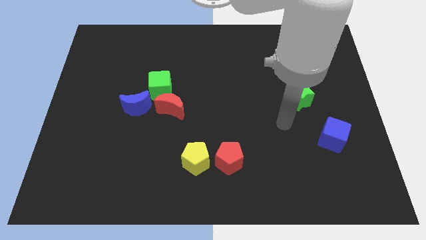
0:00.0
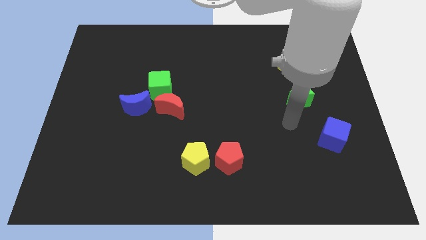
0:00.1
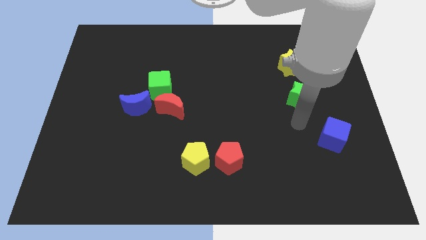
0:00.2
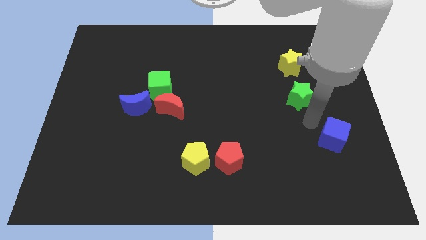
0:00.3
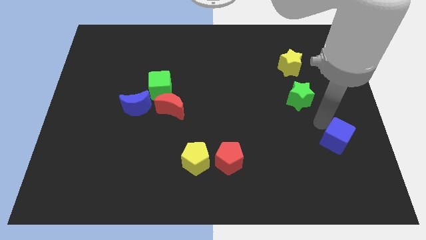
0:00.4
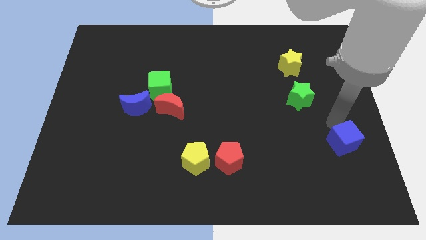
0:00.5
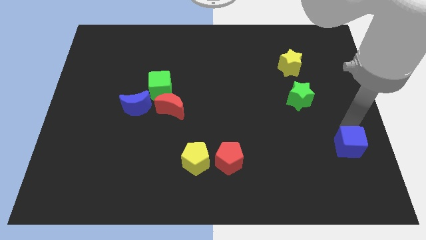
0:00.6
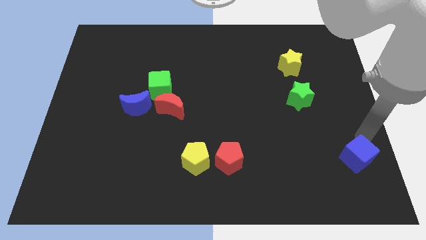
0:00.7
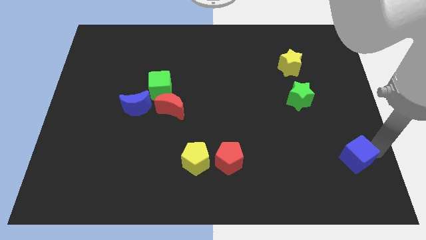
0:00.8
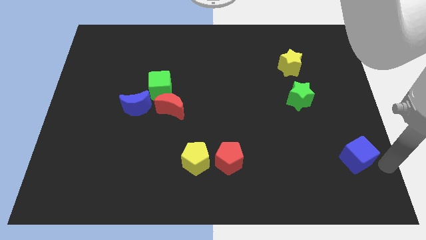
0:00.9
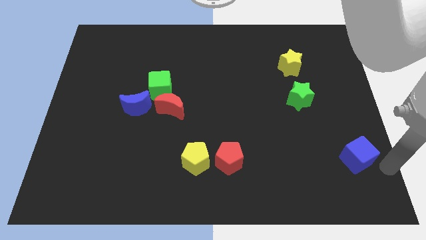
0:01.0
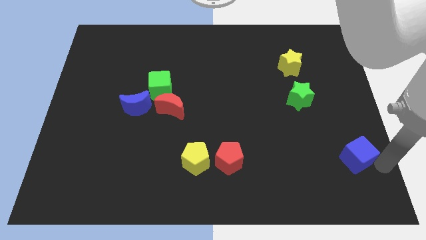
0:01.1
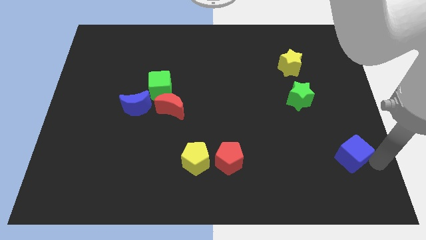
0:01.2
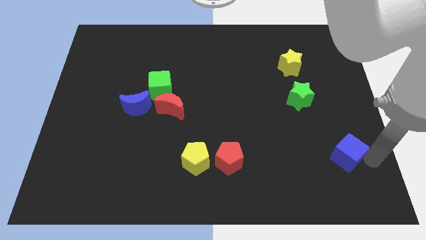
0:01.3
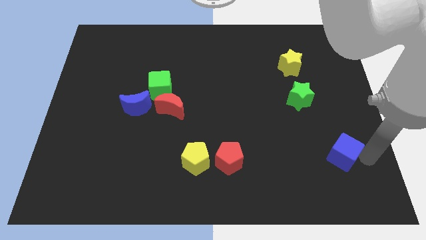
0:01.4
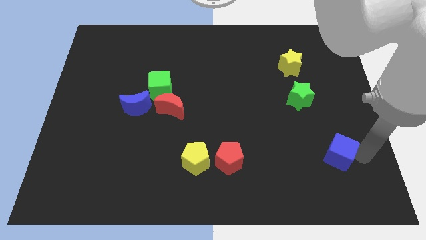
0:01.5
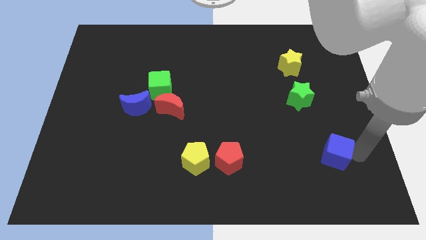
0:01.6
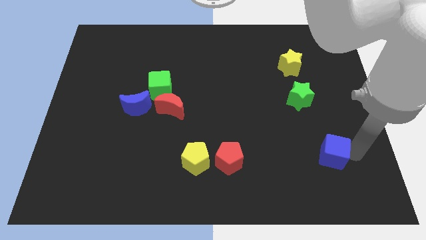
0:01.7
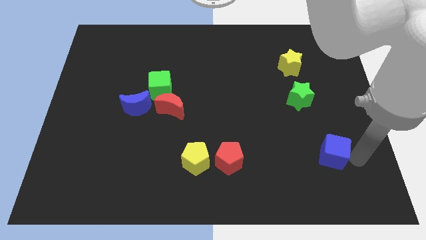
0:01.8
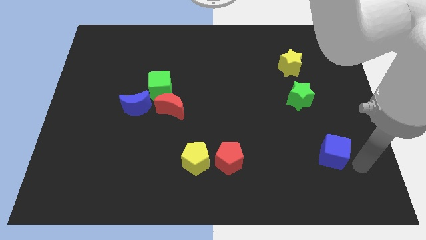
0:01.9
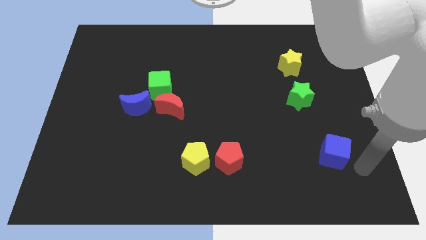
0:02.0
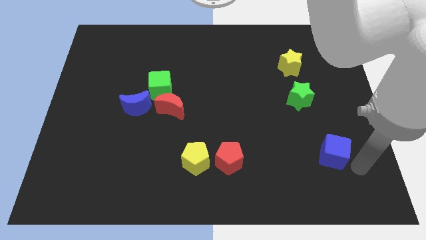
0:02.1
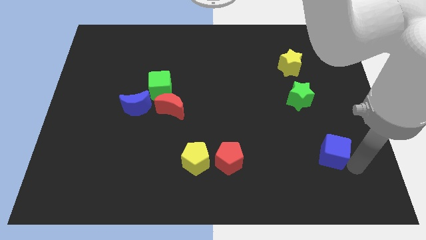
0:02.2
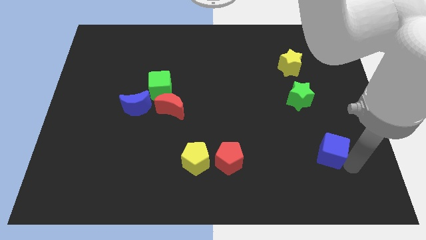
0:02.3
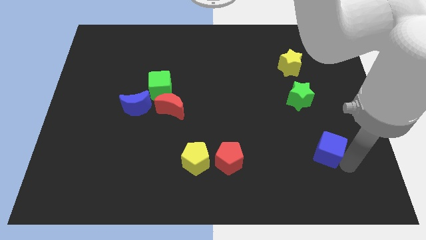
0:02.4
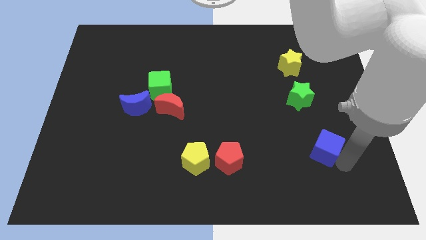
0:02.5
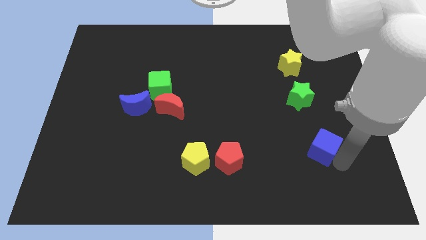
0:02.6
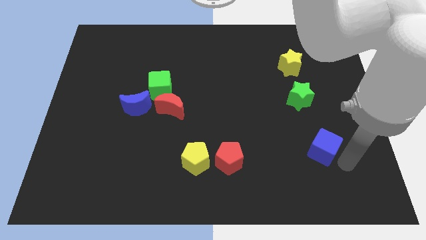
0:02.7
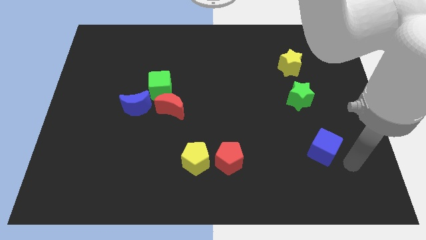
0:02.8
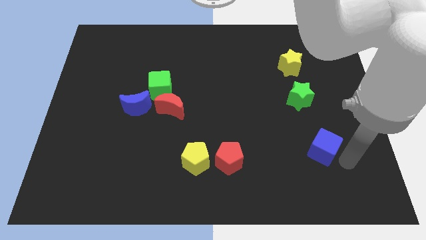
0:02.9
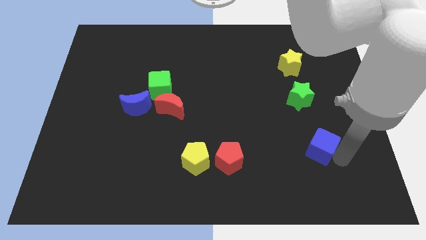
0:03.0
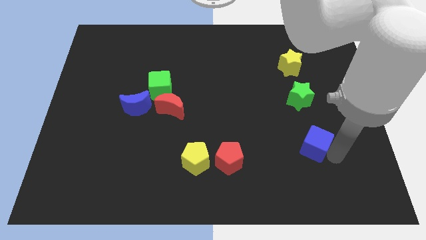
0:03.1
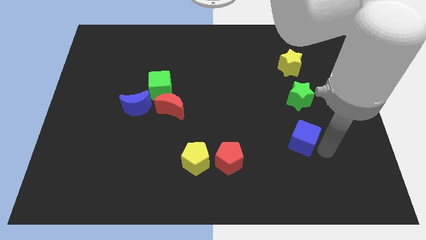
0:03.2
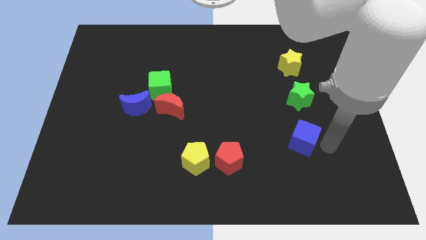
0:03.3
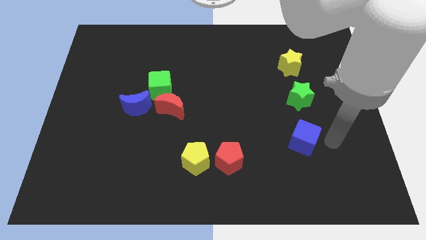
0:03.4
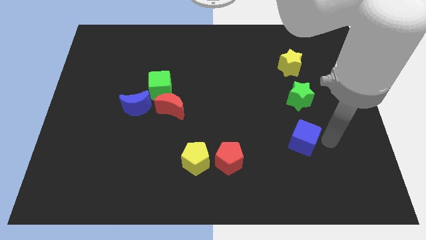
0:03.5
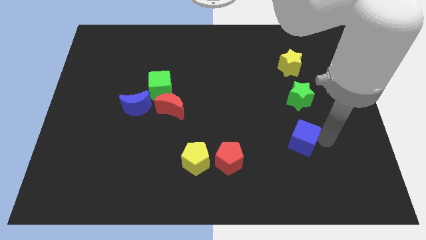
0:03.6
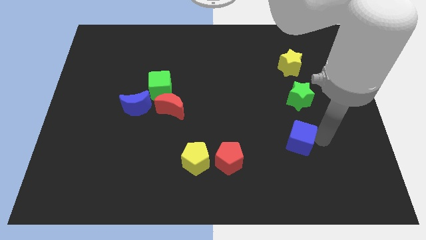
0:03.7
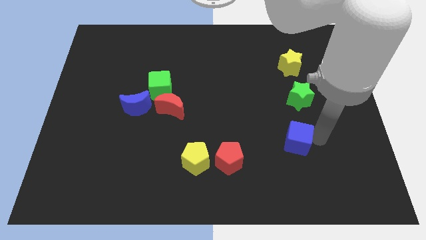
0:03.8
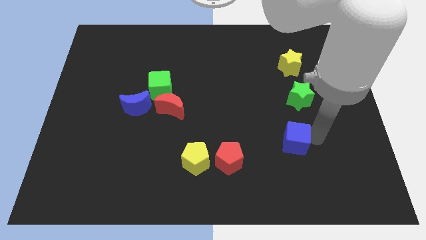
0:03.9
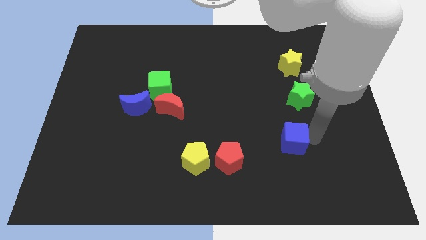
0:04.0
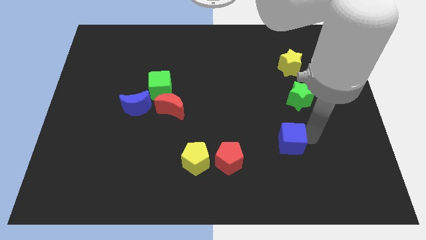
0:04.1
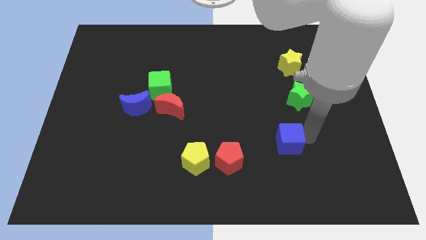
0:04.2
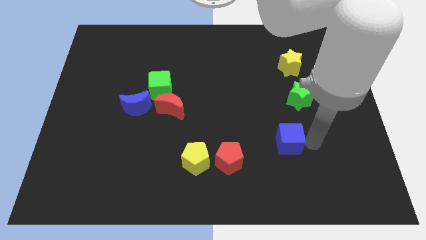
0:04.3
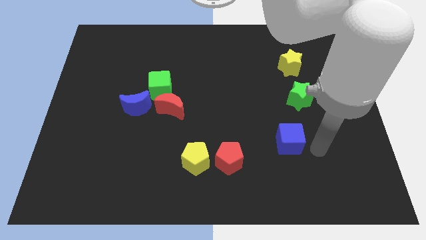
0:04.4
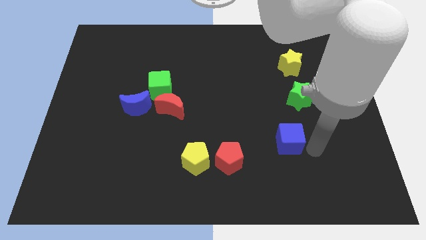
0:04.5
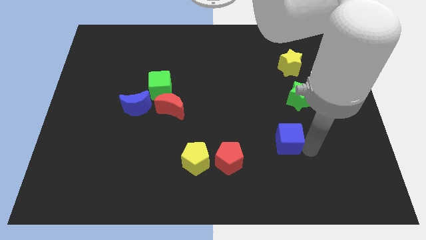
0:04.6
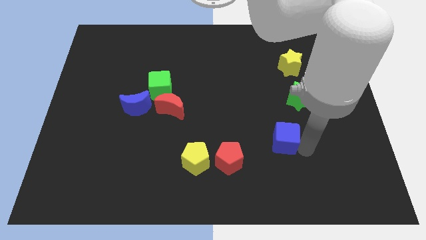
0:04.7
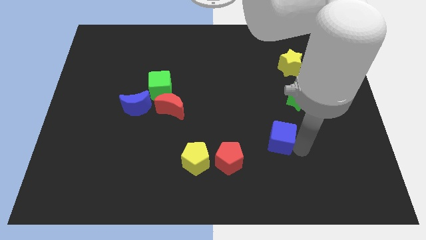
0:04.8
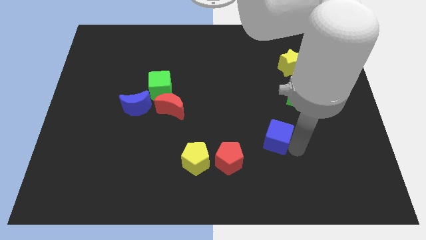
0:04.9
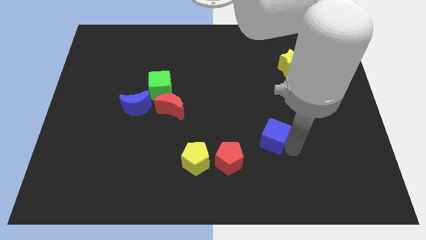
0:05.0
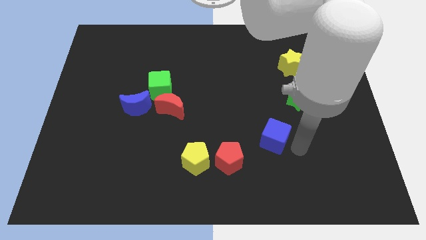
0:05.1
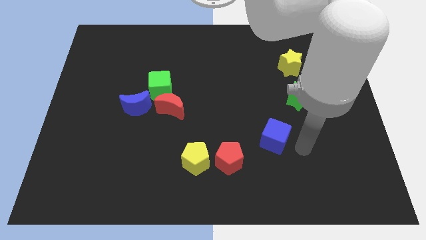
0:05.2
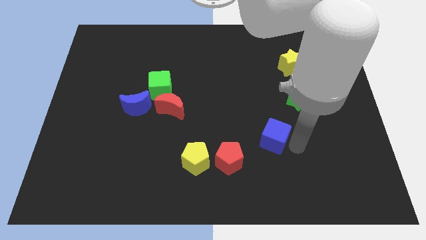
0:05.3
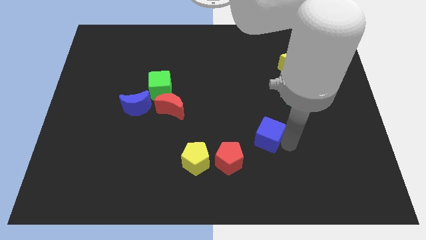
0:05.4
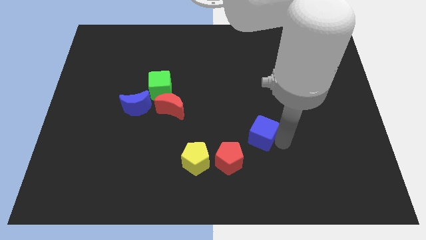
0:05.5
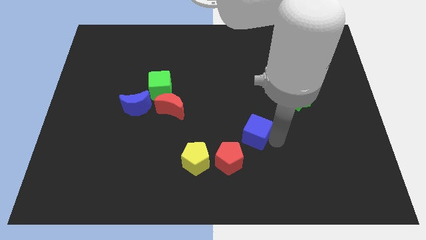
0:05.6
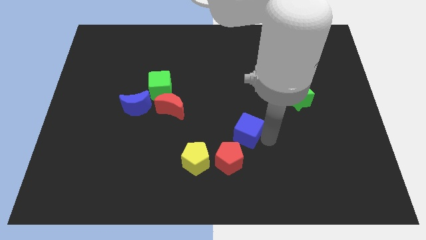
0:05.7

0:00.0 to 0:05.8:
put the blue cube to the top of the red pentagon
